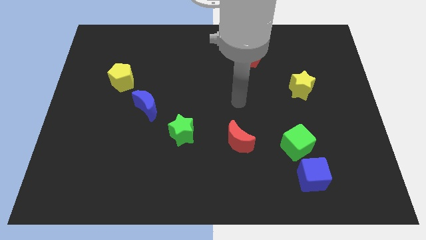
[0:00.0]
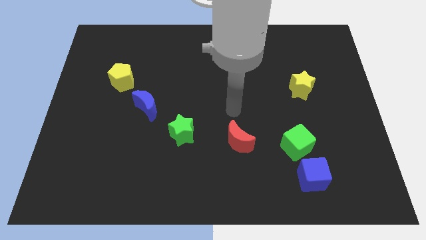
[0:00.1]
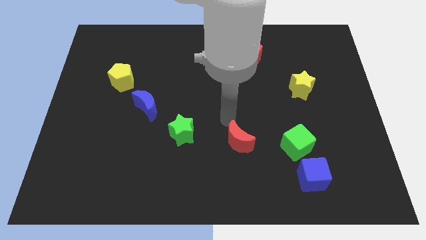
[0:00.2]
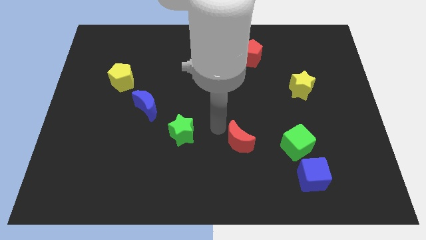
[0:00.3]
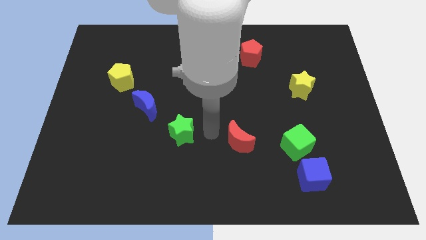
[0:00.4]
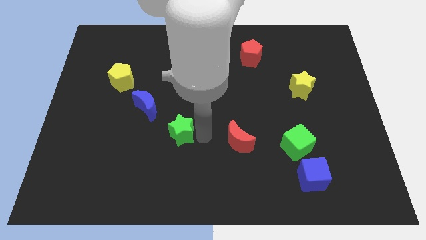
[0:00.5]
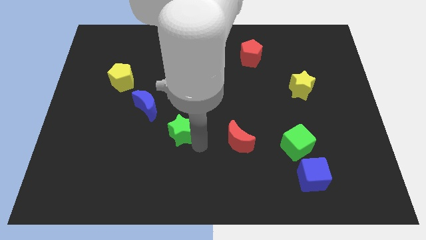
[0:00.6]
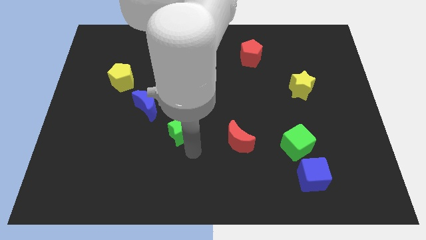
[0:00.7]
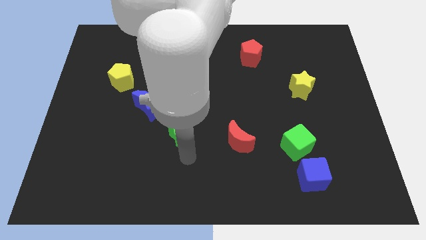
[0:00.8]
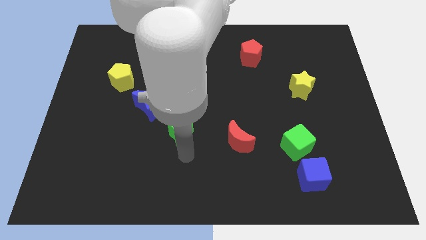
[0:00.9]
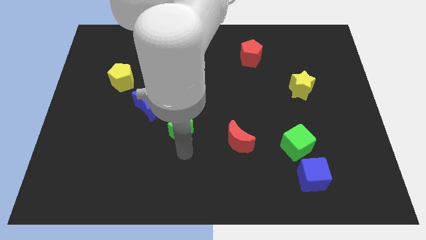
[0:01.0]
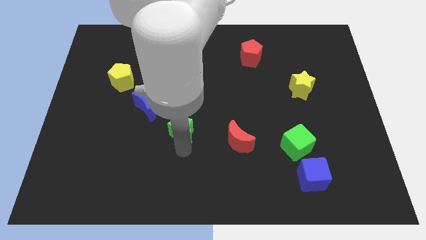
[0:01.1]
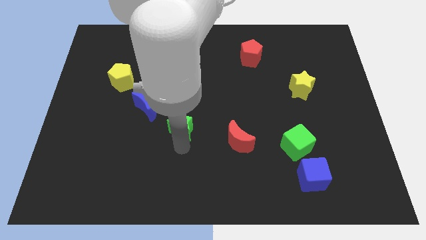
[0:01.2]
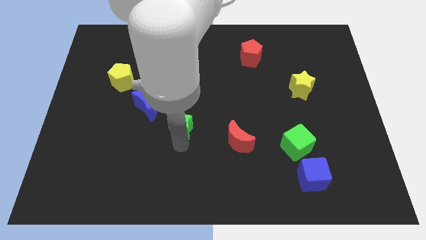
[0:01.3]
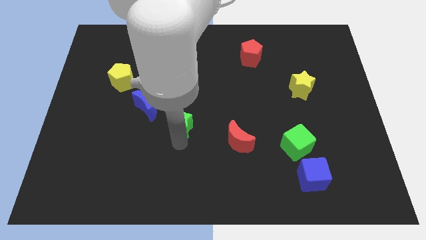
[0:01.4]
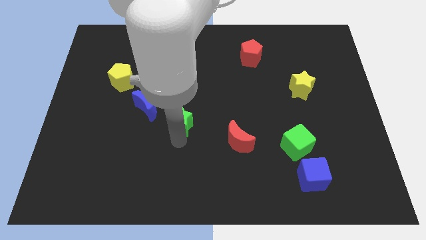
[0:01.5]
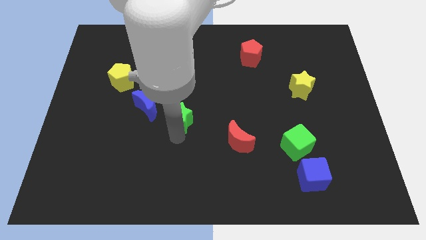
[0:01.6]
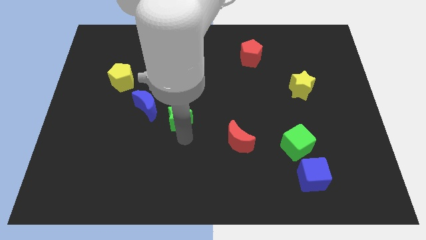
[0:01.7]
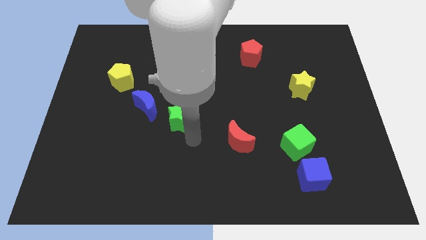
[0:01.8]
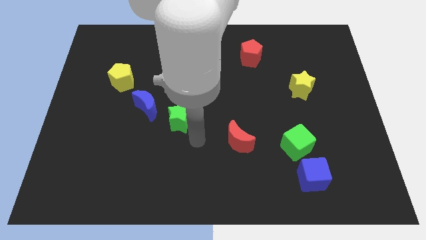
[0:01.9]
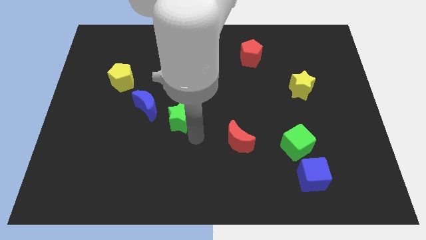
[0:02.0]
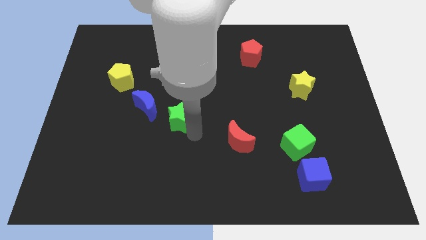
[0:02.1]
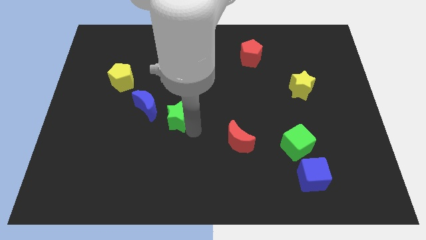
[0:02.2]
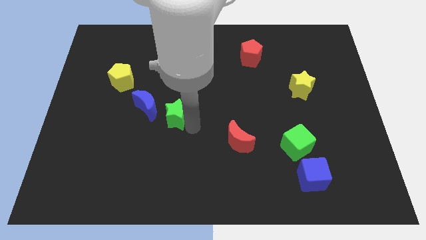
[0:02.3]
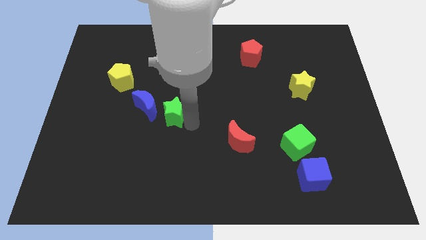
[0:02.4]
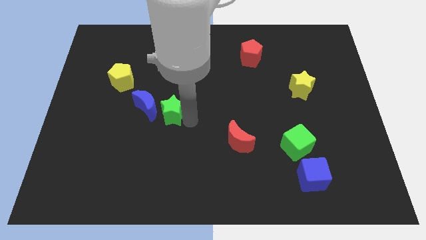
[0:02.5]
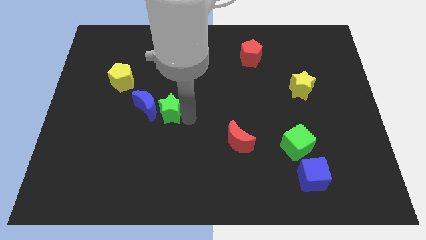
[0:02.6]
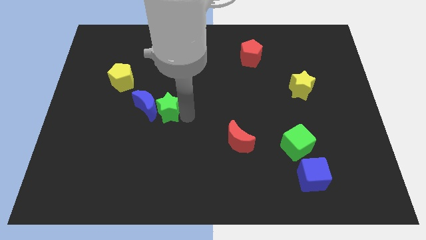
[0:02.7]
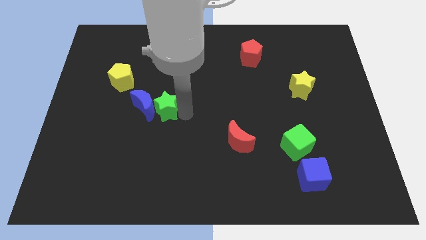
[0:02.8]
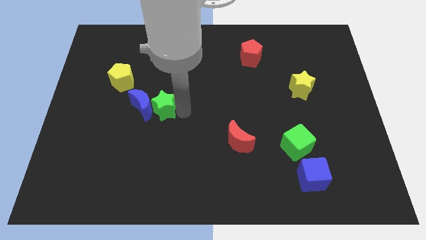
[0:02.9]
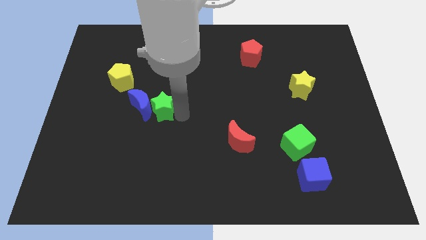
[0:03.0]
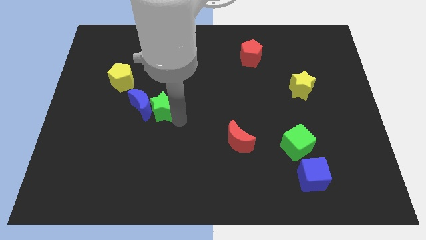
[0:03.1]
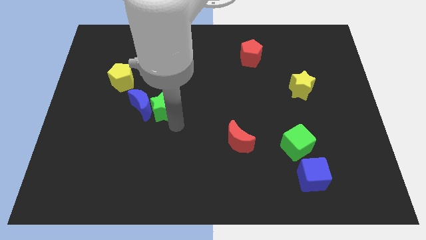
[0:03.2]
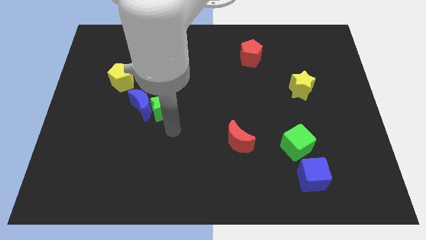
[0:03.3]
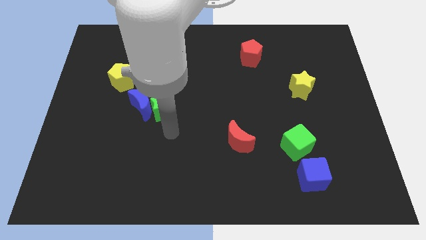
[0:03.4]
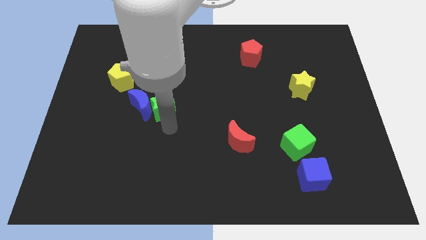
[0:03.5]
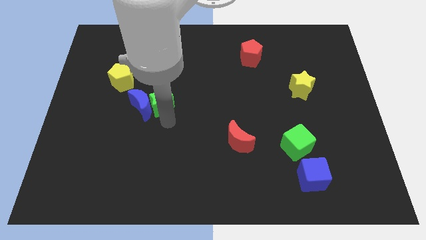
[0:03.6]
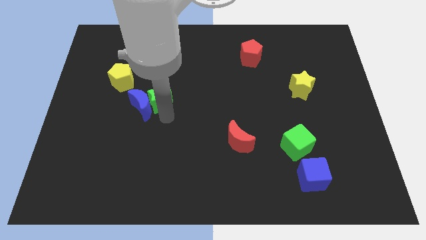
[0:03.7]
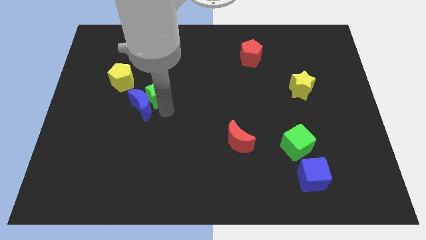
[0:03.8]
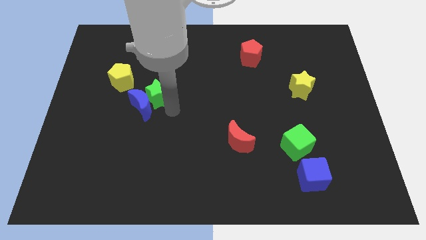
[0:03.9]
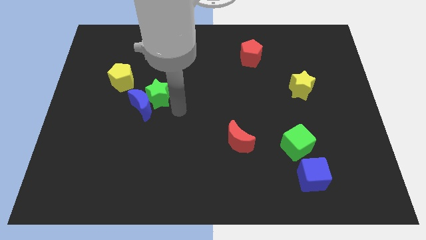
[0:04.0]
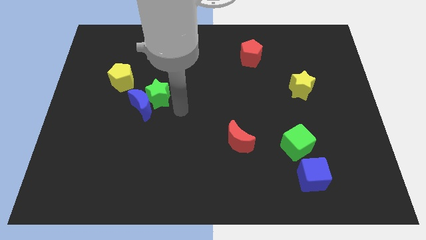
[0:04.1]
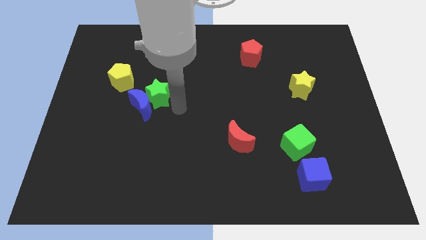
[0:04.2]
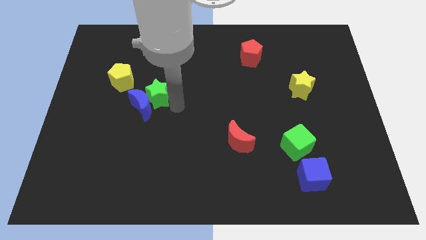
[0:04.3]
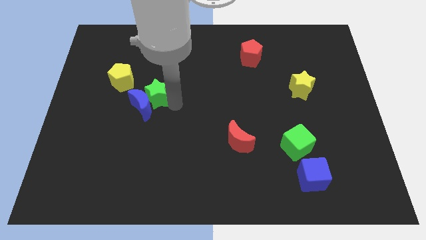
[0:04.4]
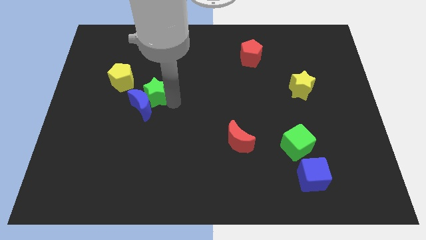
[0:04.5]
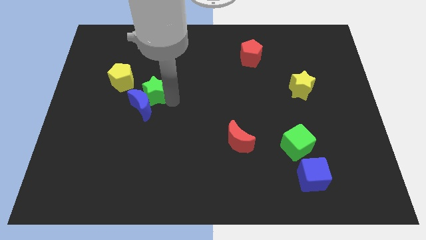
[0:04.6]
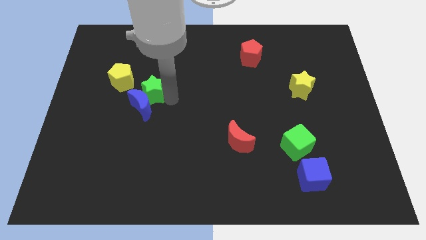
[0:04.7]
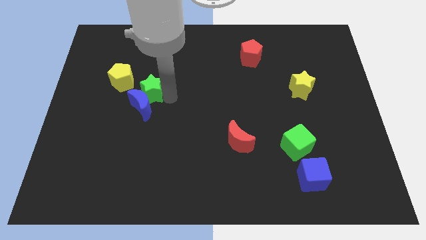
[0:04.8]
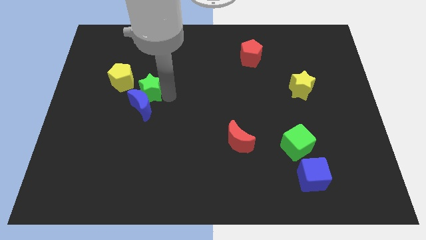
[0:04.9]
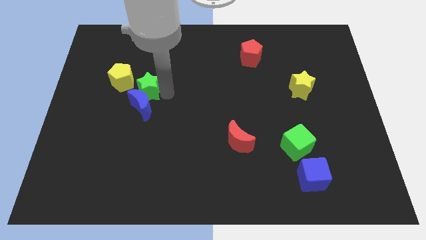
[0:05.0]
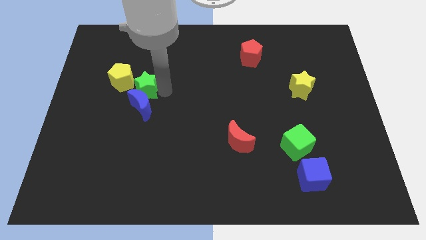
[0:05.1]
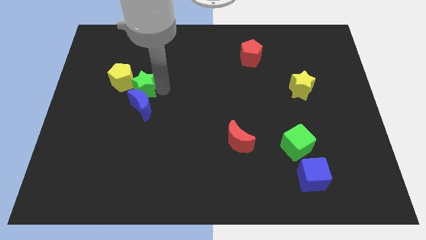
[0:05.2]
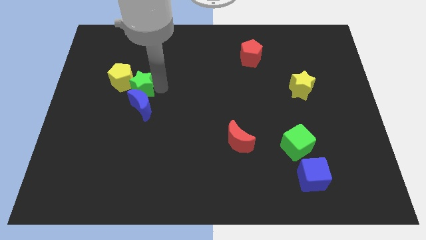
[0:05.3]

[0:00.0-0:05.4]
put the green star to the yellow pentagon

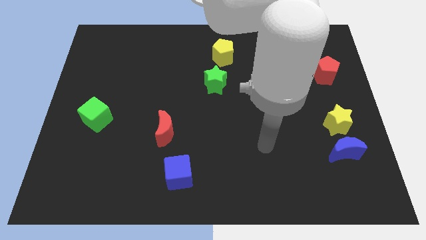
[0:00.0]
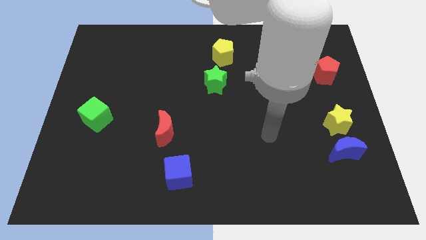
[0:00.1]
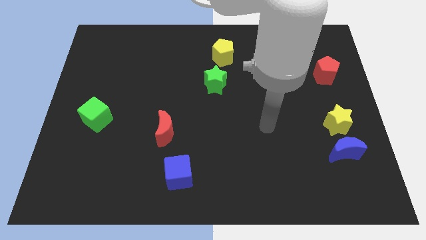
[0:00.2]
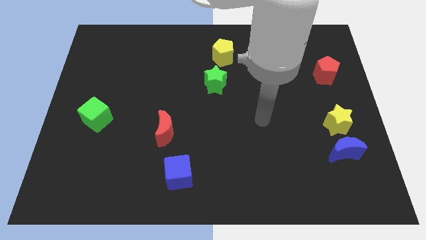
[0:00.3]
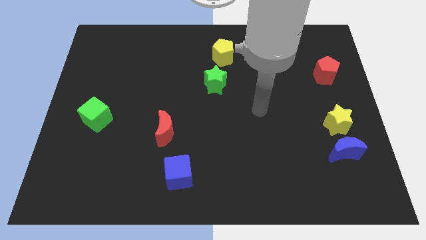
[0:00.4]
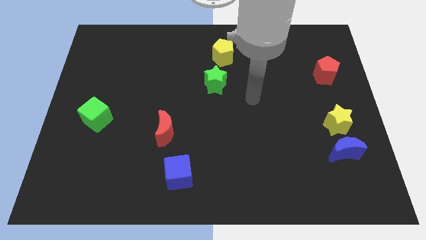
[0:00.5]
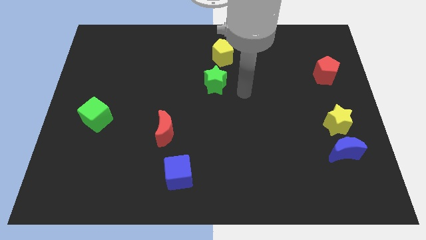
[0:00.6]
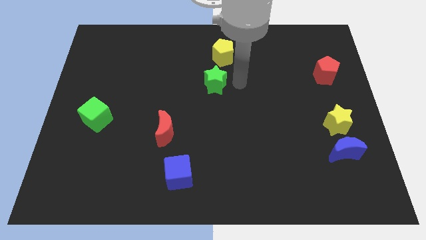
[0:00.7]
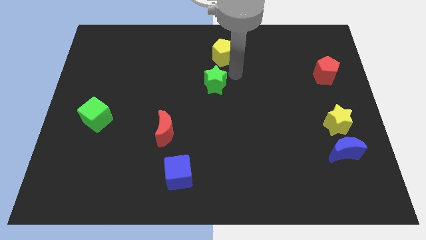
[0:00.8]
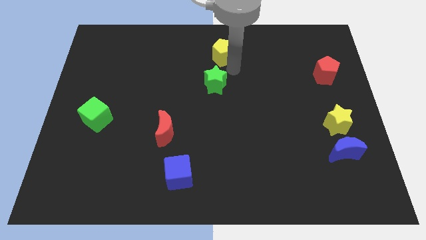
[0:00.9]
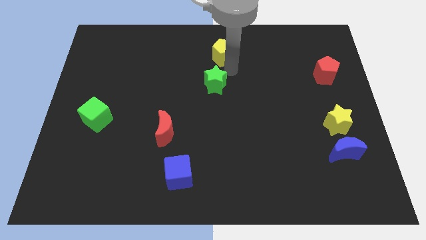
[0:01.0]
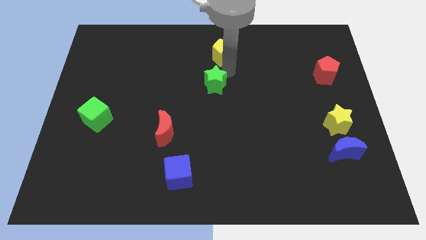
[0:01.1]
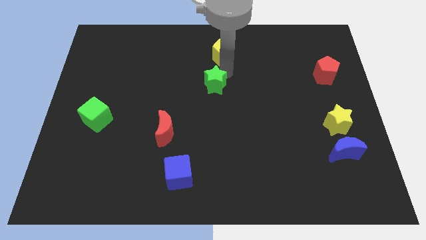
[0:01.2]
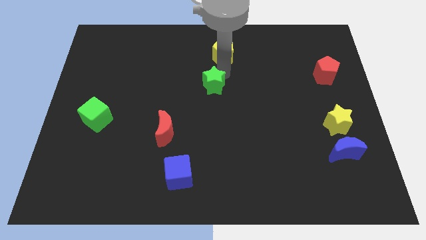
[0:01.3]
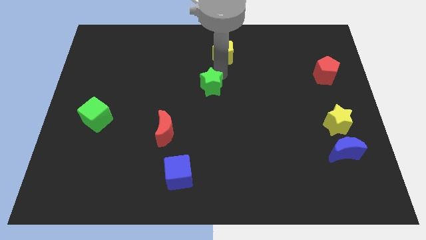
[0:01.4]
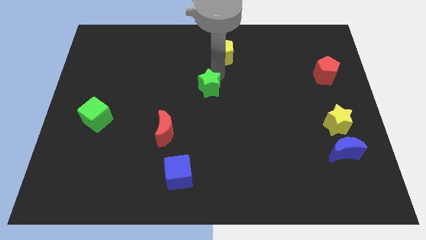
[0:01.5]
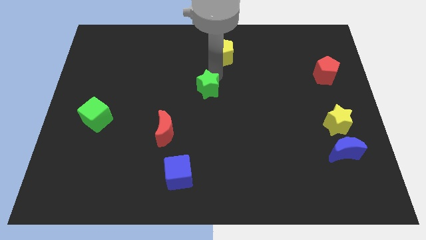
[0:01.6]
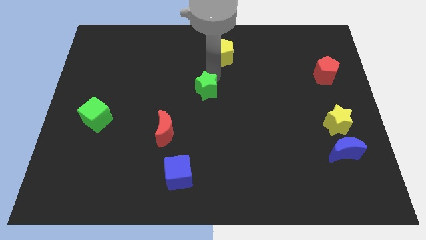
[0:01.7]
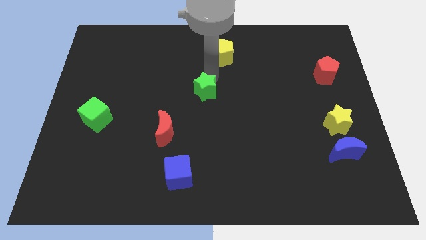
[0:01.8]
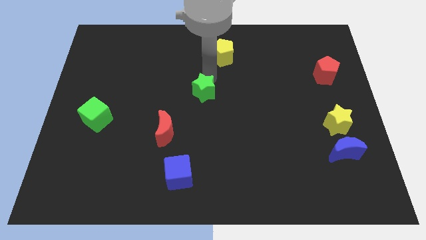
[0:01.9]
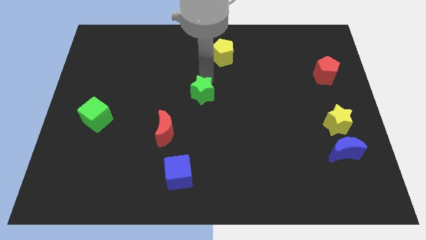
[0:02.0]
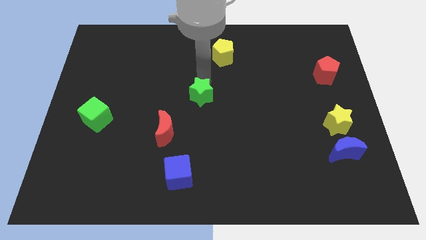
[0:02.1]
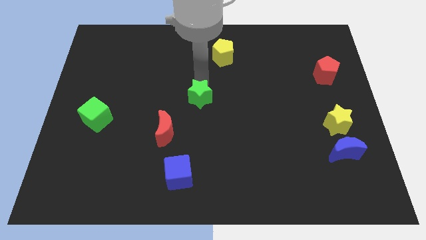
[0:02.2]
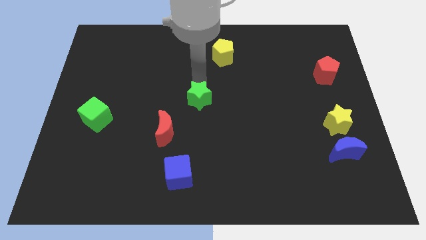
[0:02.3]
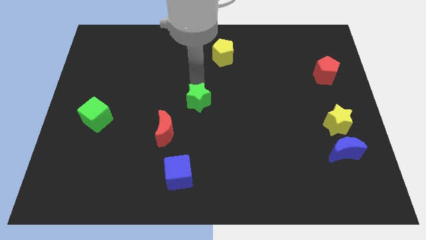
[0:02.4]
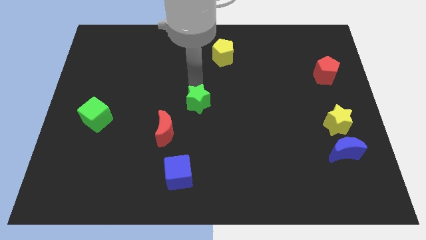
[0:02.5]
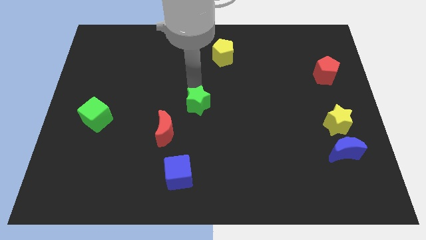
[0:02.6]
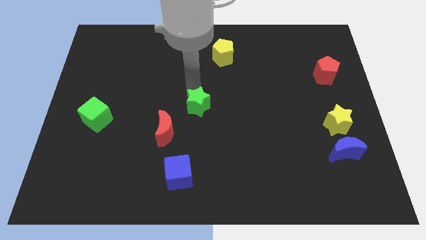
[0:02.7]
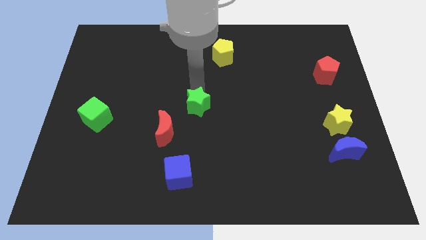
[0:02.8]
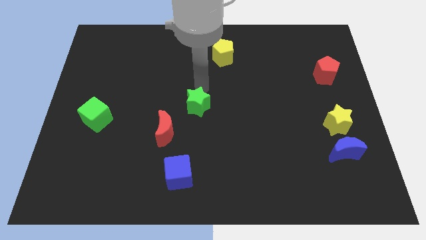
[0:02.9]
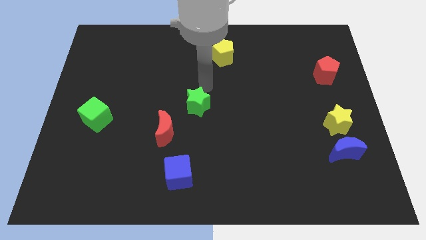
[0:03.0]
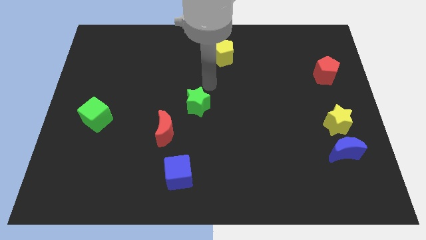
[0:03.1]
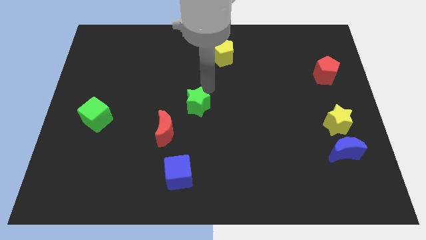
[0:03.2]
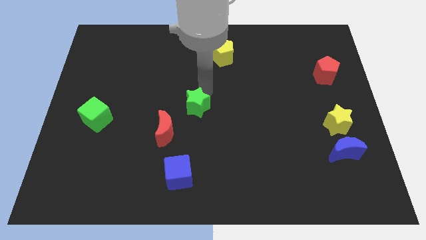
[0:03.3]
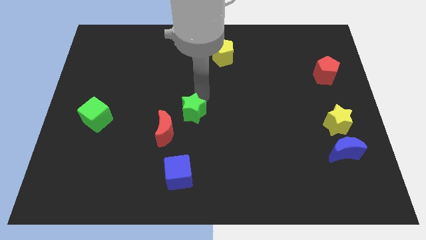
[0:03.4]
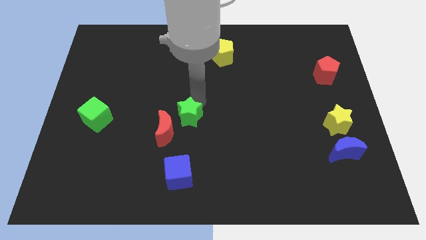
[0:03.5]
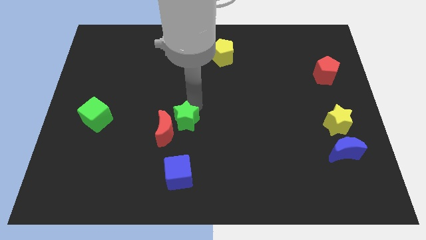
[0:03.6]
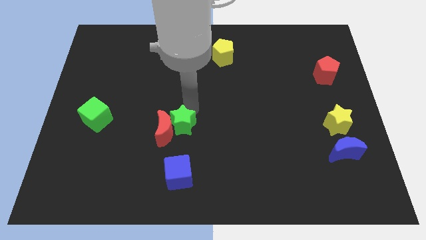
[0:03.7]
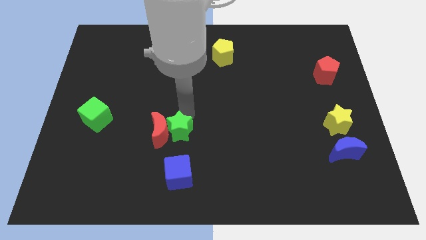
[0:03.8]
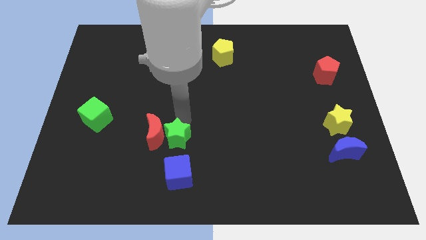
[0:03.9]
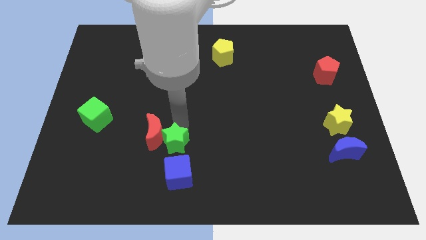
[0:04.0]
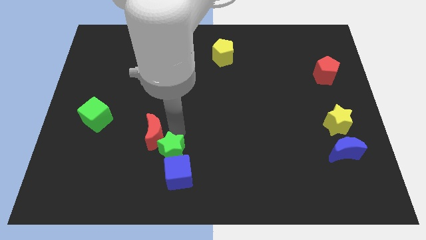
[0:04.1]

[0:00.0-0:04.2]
slide the green star close to the blue cube
